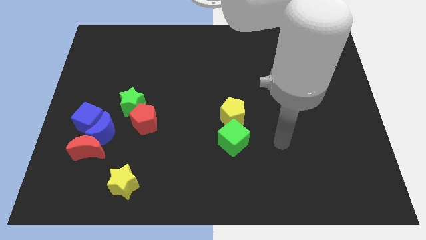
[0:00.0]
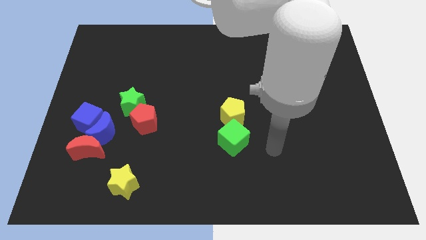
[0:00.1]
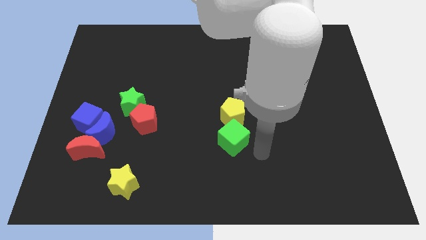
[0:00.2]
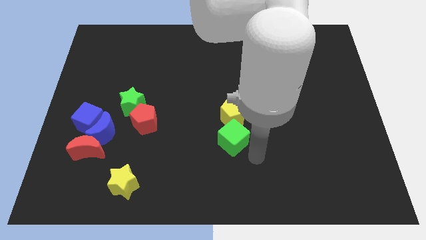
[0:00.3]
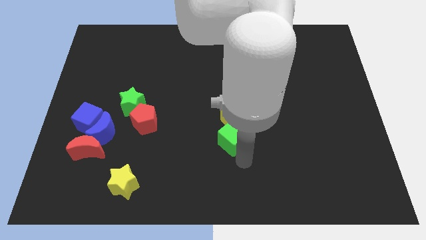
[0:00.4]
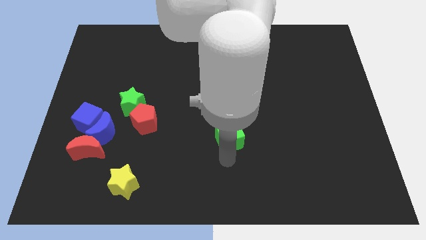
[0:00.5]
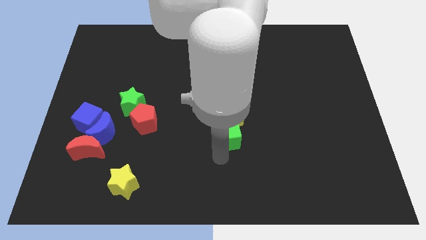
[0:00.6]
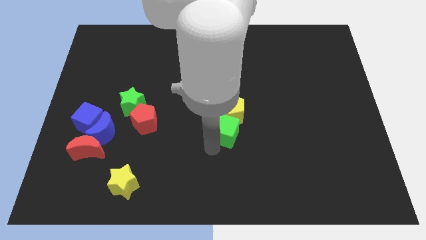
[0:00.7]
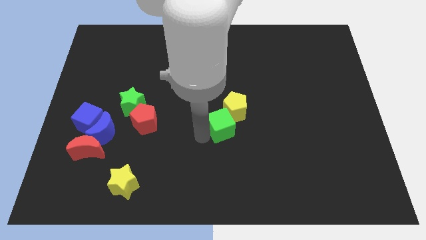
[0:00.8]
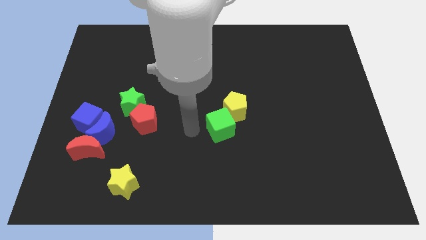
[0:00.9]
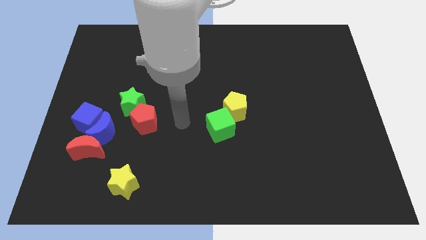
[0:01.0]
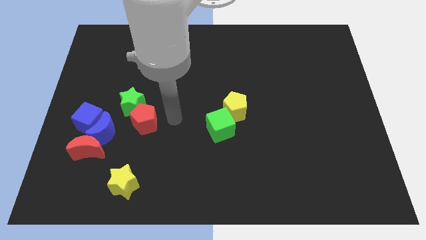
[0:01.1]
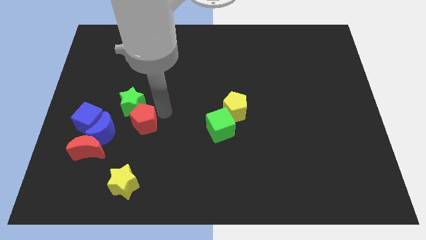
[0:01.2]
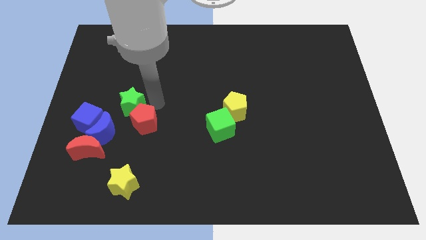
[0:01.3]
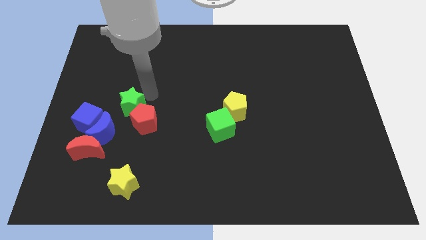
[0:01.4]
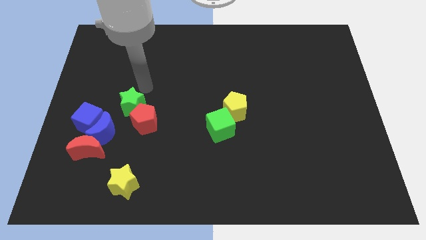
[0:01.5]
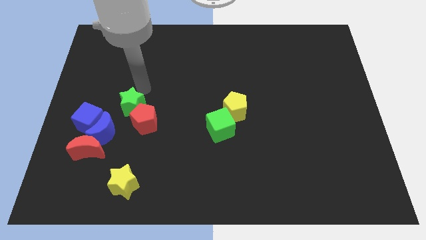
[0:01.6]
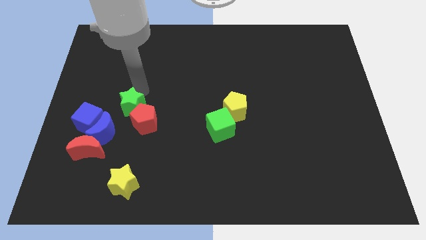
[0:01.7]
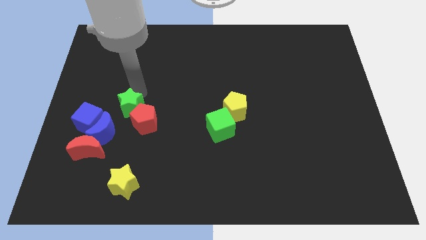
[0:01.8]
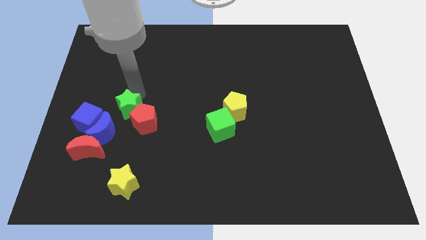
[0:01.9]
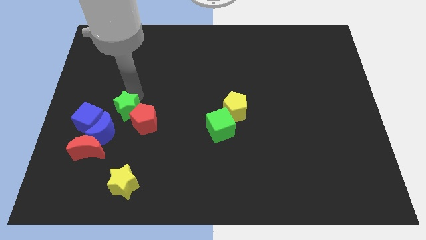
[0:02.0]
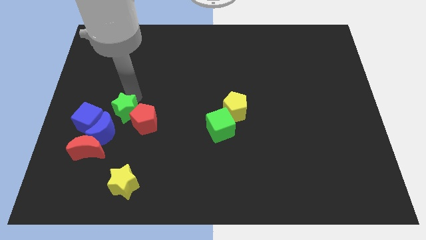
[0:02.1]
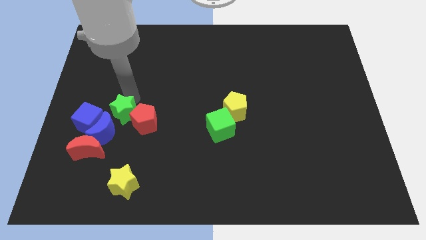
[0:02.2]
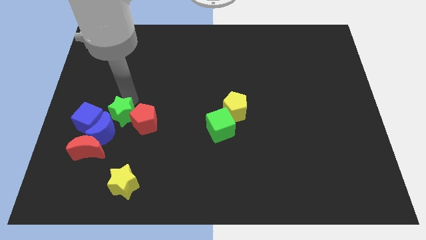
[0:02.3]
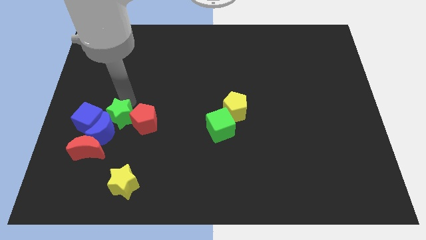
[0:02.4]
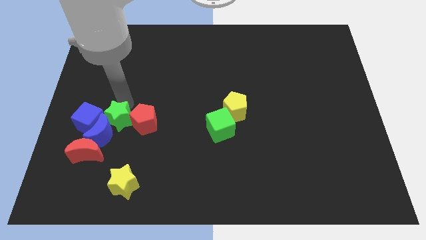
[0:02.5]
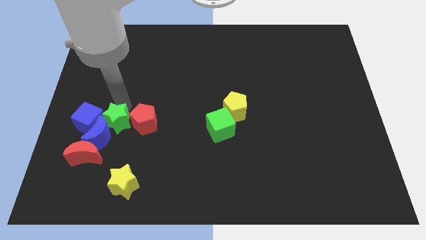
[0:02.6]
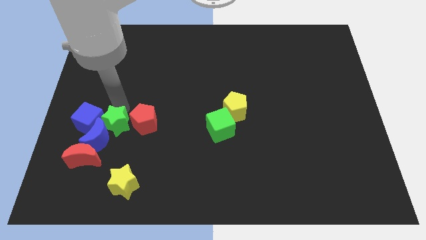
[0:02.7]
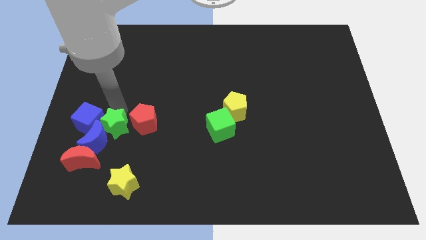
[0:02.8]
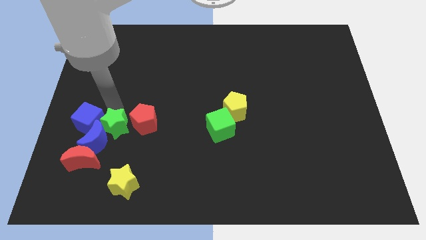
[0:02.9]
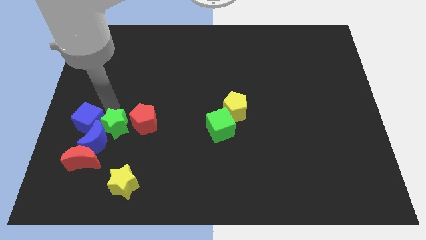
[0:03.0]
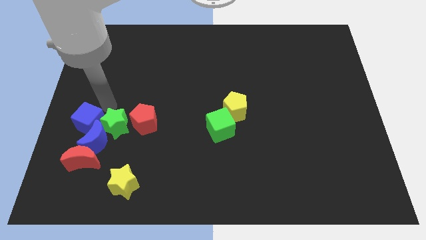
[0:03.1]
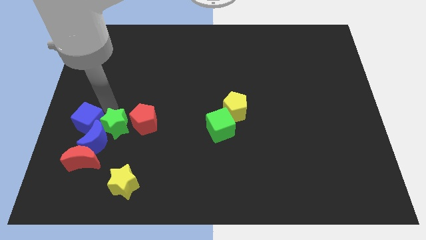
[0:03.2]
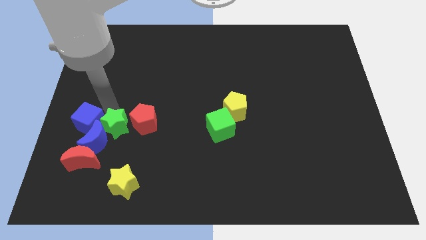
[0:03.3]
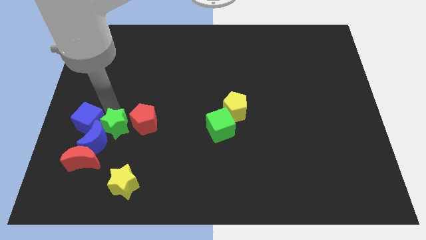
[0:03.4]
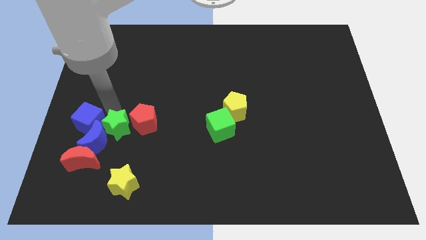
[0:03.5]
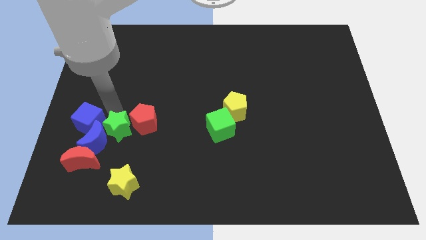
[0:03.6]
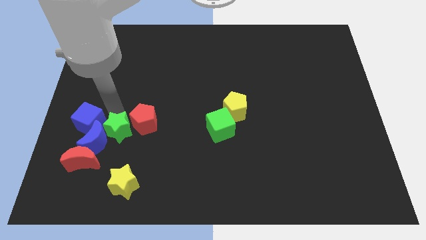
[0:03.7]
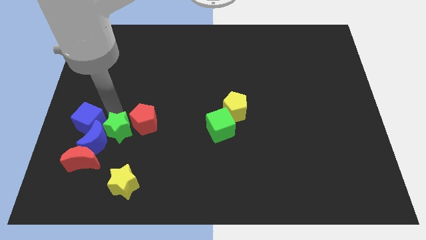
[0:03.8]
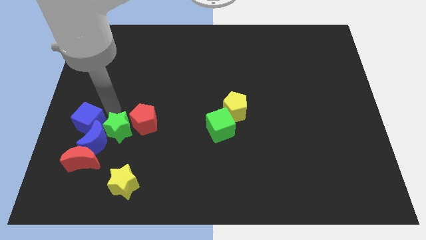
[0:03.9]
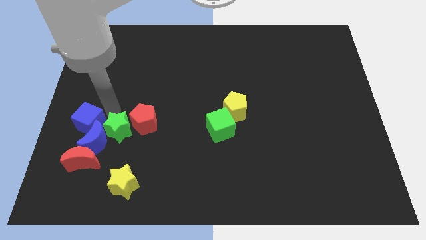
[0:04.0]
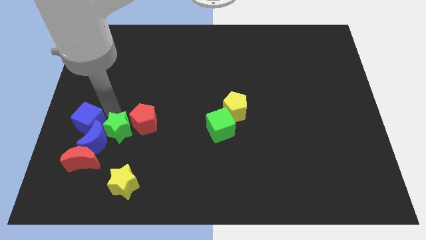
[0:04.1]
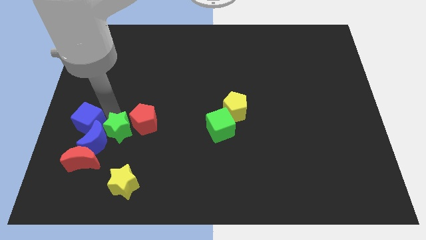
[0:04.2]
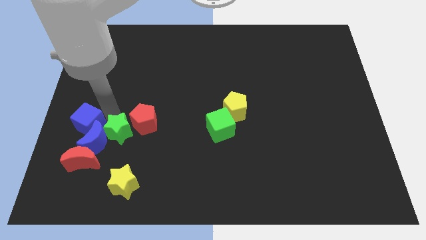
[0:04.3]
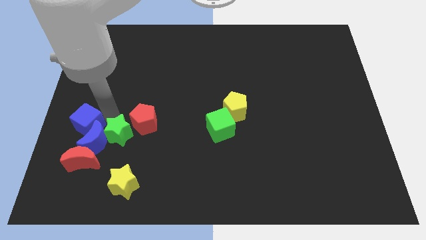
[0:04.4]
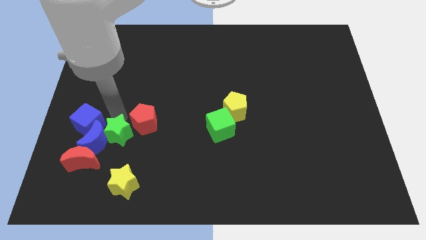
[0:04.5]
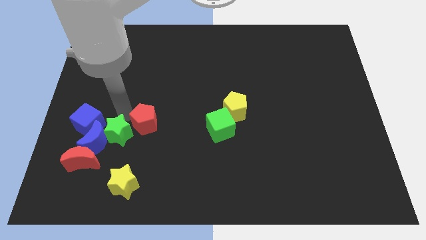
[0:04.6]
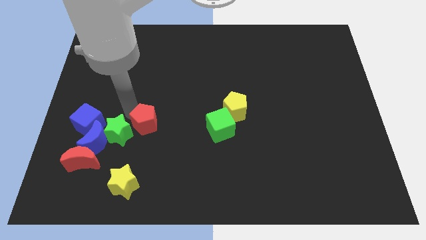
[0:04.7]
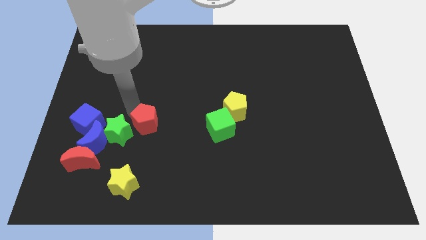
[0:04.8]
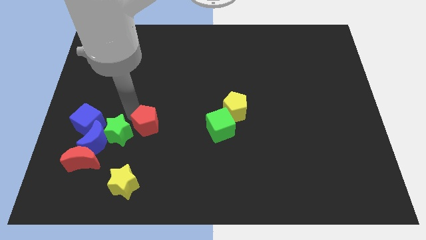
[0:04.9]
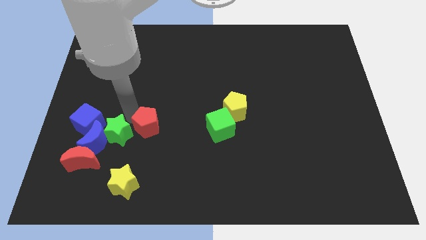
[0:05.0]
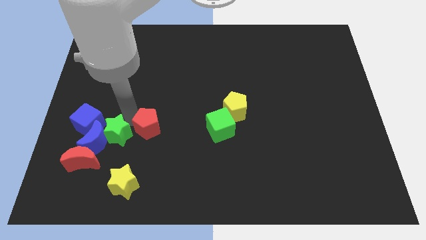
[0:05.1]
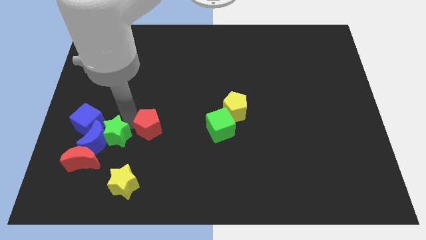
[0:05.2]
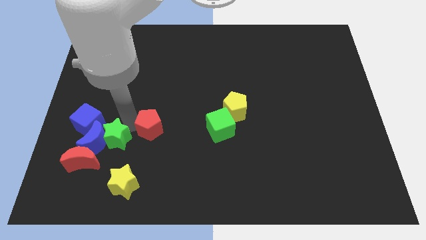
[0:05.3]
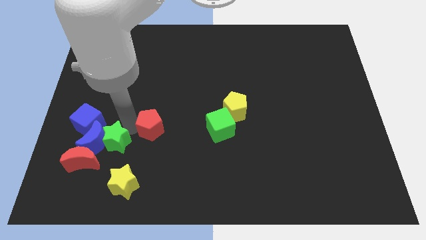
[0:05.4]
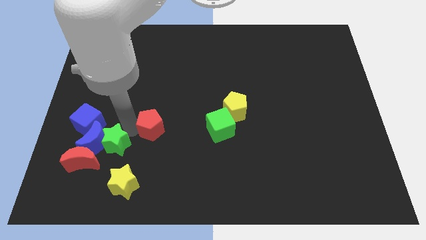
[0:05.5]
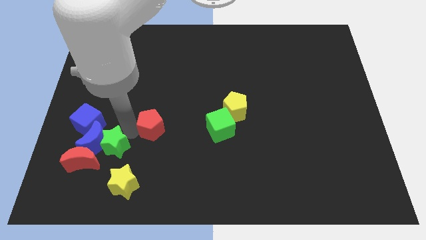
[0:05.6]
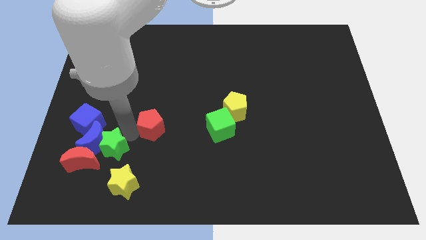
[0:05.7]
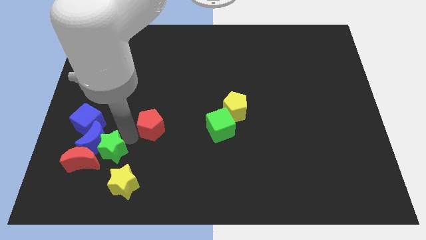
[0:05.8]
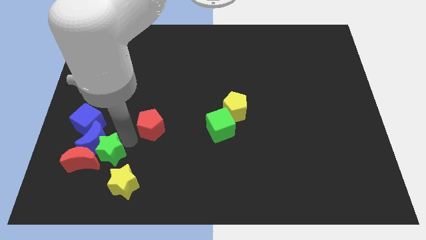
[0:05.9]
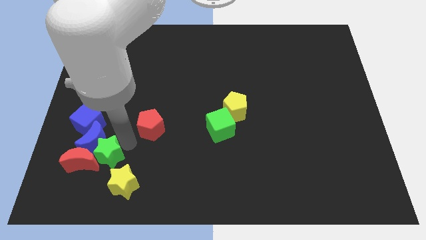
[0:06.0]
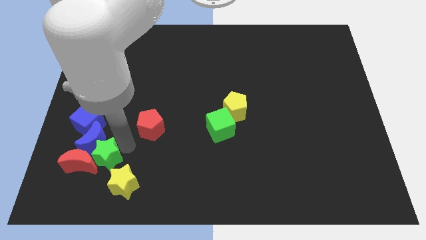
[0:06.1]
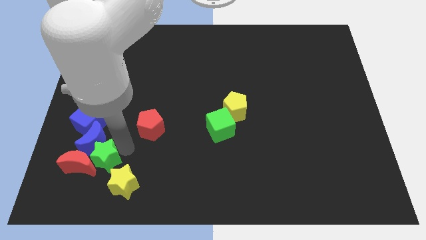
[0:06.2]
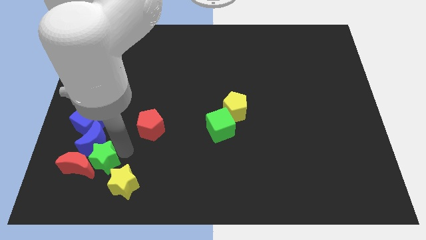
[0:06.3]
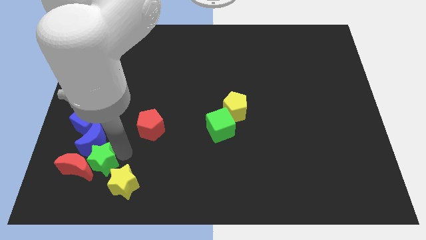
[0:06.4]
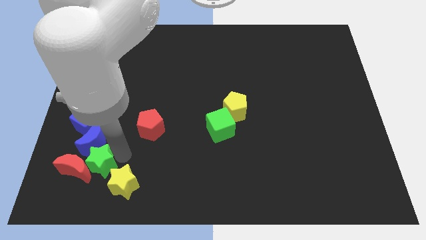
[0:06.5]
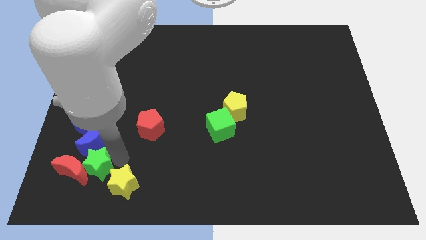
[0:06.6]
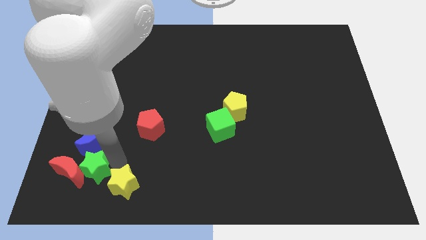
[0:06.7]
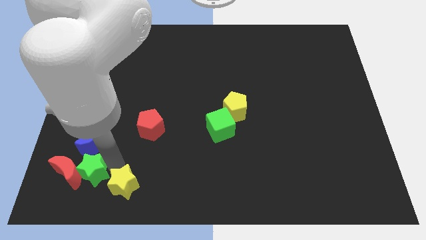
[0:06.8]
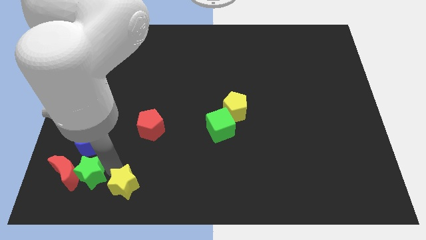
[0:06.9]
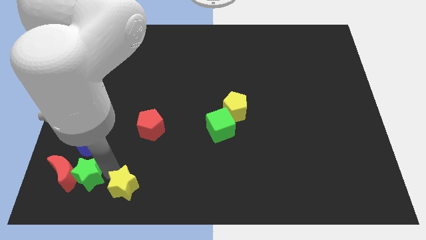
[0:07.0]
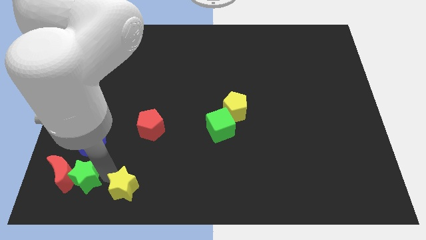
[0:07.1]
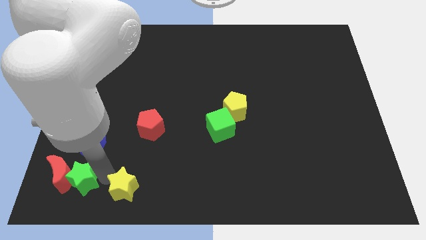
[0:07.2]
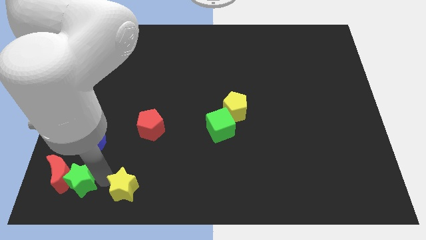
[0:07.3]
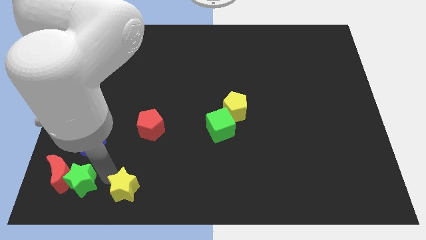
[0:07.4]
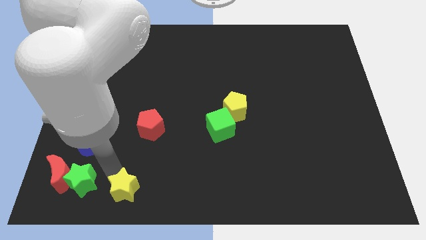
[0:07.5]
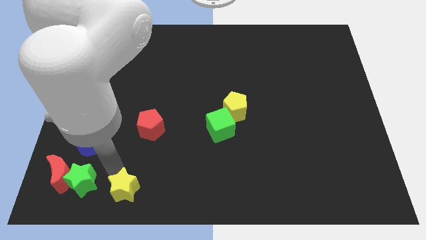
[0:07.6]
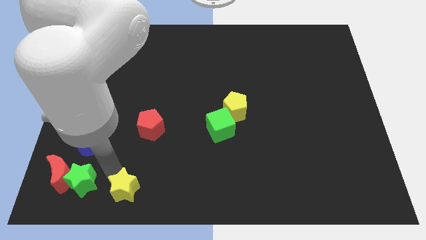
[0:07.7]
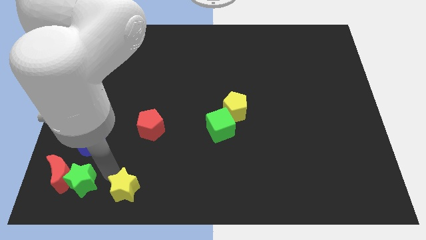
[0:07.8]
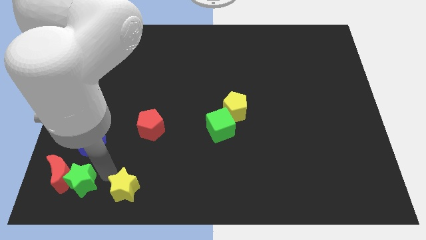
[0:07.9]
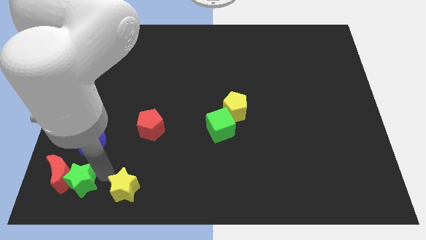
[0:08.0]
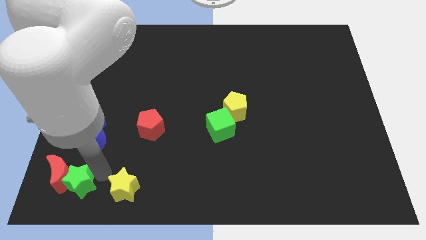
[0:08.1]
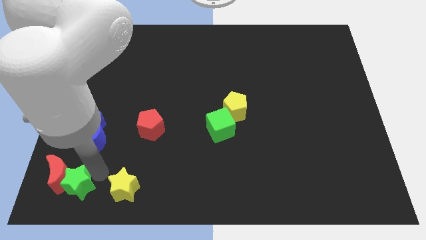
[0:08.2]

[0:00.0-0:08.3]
slide the green star to the bottom left corner
